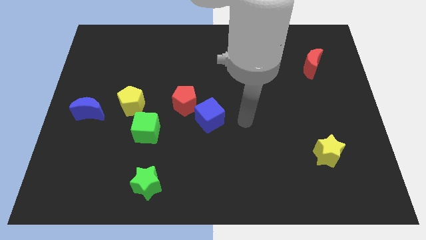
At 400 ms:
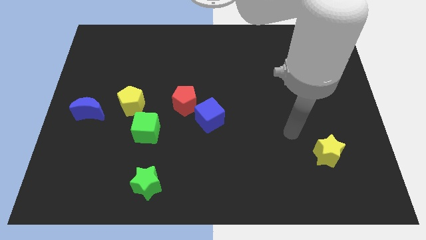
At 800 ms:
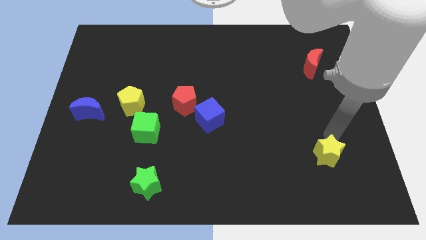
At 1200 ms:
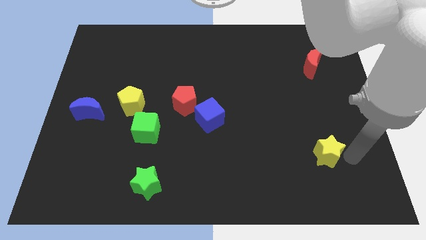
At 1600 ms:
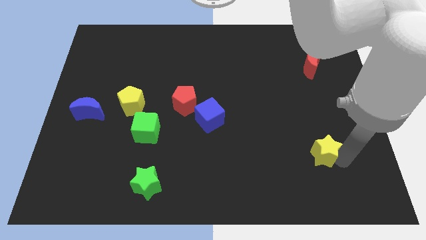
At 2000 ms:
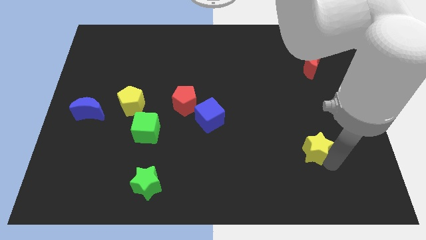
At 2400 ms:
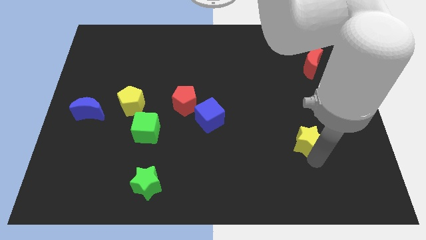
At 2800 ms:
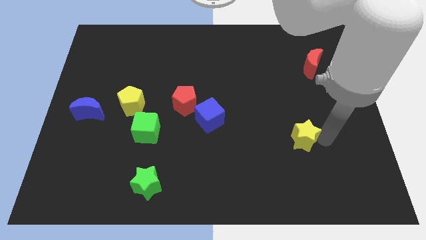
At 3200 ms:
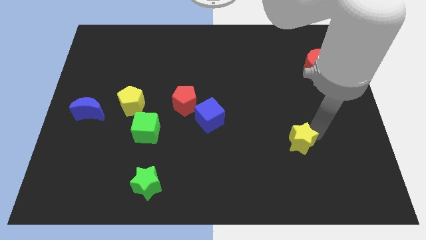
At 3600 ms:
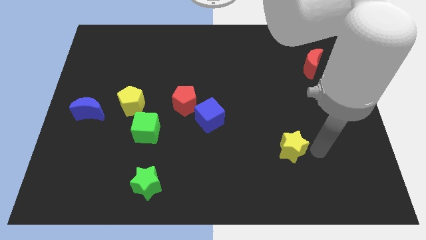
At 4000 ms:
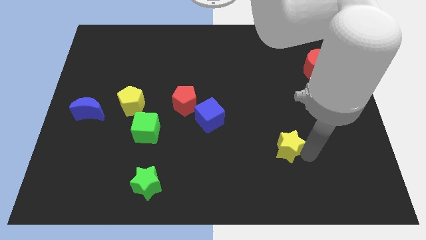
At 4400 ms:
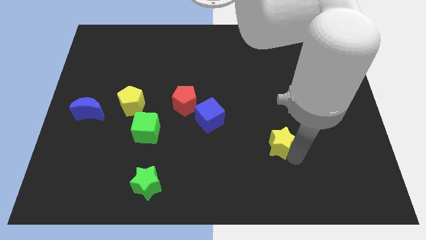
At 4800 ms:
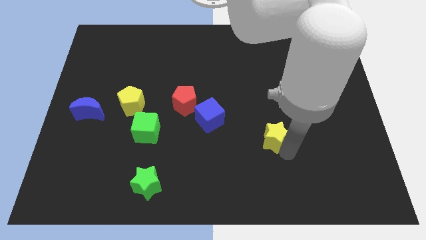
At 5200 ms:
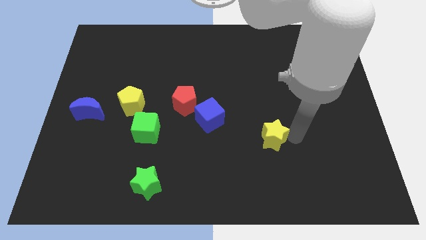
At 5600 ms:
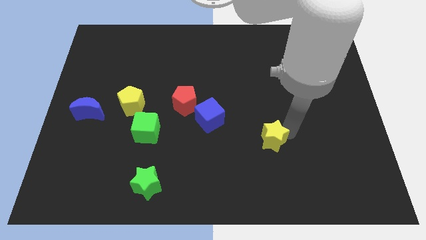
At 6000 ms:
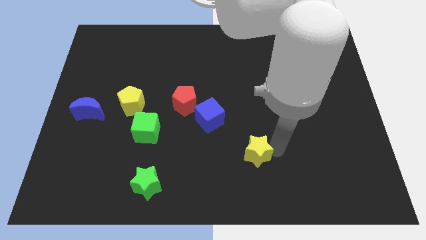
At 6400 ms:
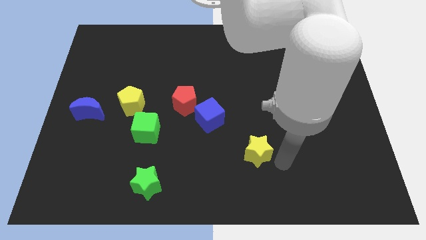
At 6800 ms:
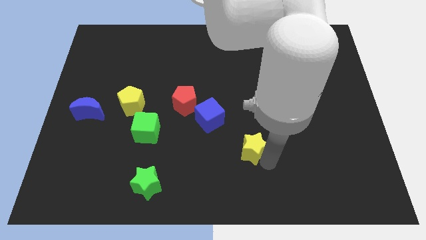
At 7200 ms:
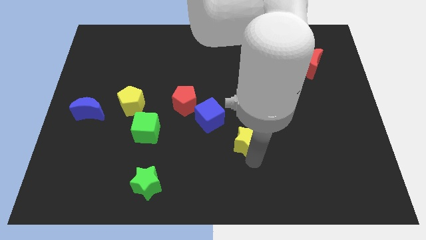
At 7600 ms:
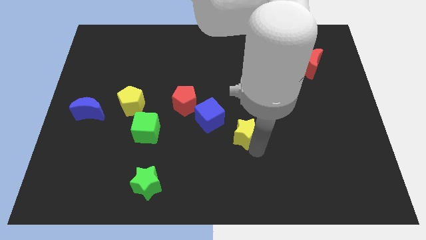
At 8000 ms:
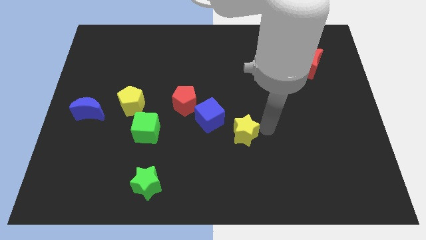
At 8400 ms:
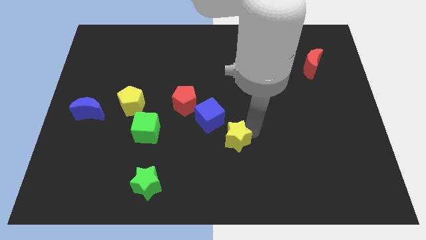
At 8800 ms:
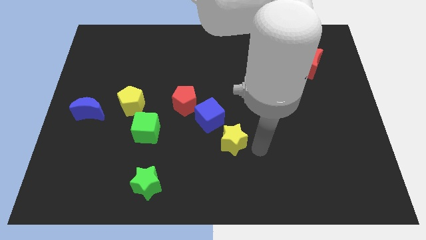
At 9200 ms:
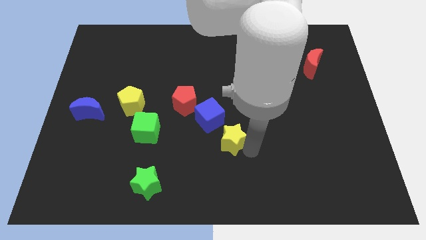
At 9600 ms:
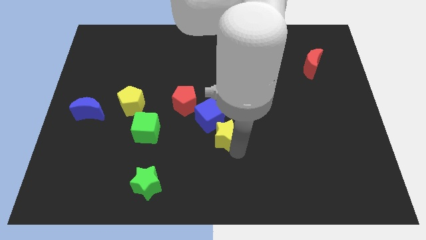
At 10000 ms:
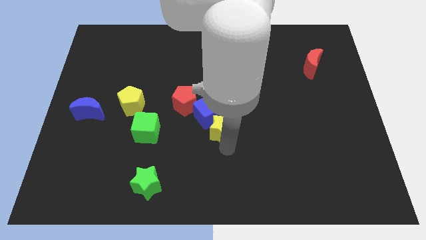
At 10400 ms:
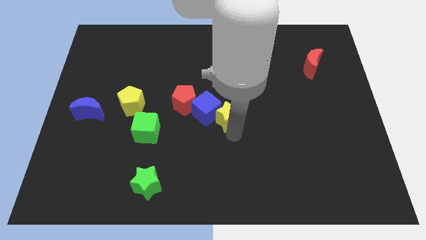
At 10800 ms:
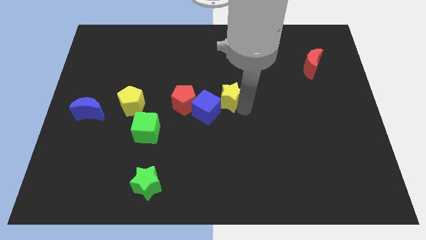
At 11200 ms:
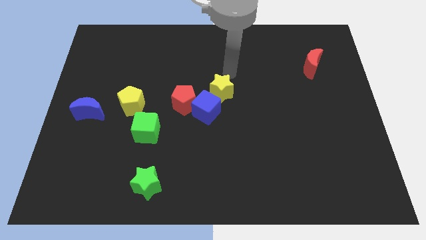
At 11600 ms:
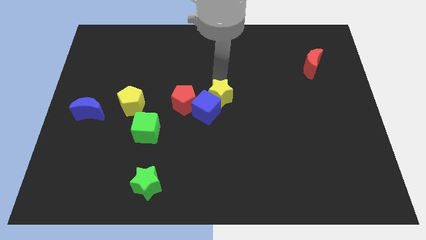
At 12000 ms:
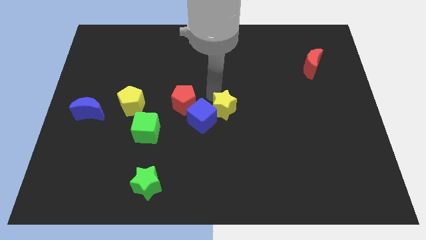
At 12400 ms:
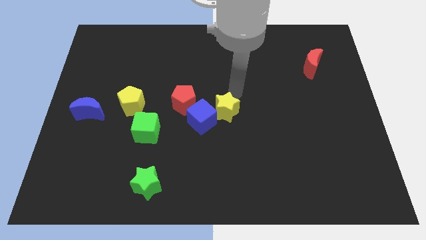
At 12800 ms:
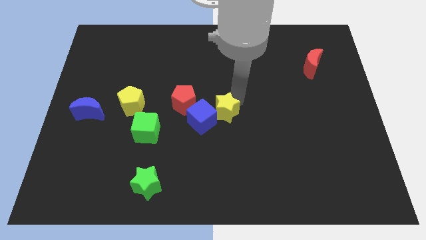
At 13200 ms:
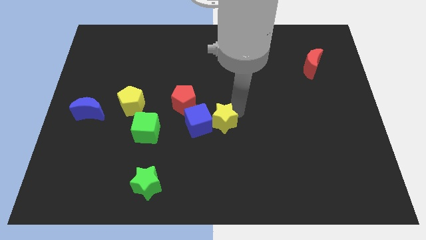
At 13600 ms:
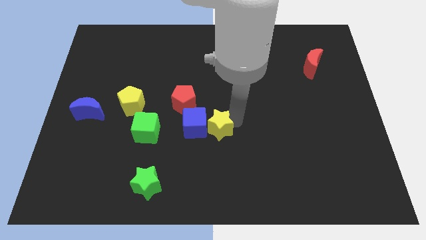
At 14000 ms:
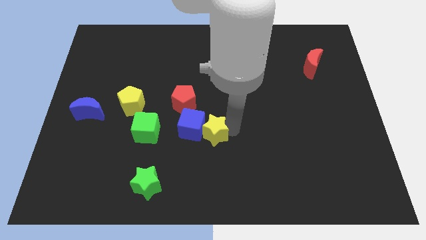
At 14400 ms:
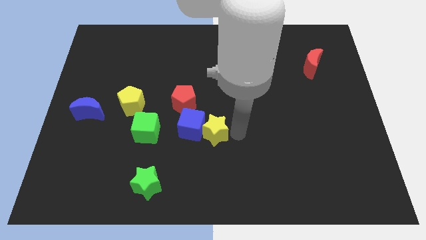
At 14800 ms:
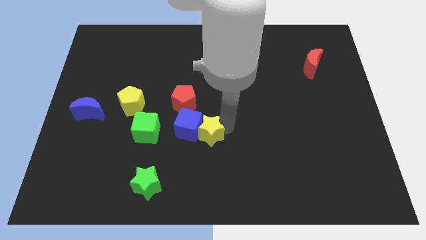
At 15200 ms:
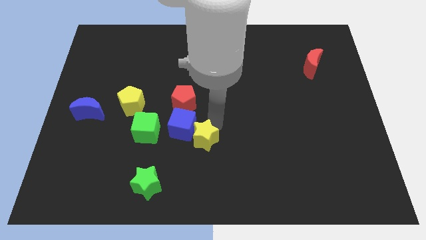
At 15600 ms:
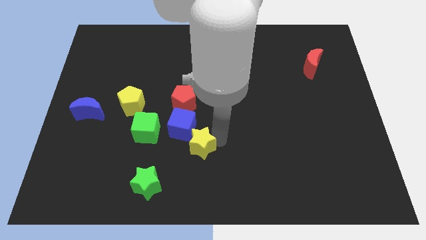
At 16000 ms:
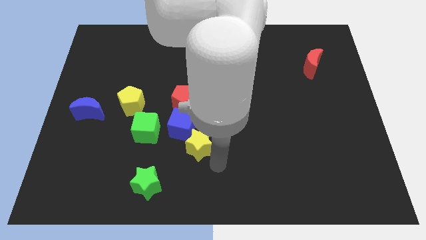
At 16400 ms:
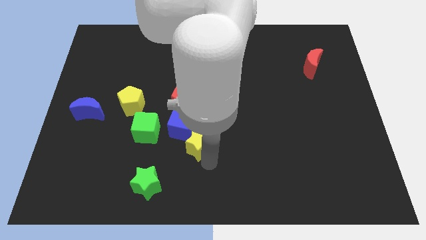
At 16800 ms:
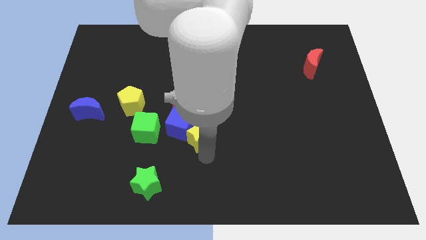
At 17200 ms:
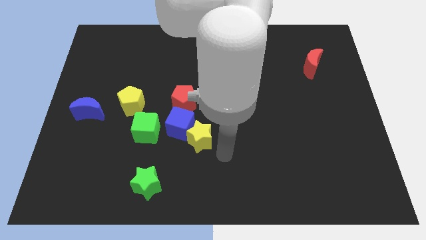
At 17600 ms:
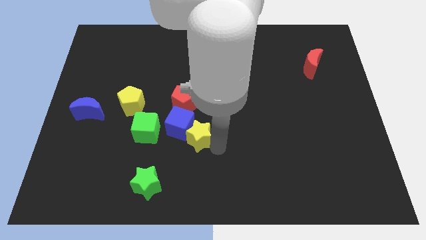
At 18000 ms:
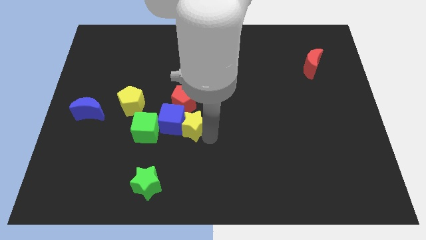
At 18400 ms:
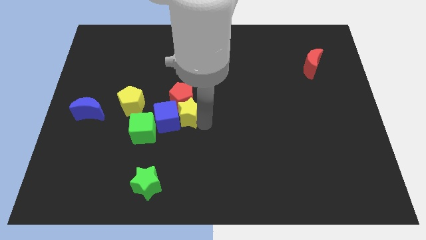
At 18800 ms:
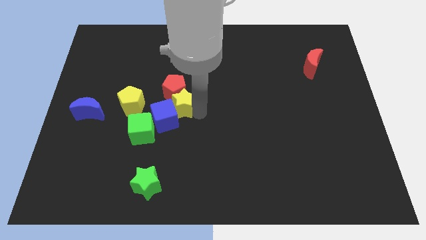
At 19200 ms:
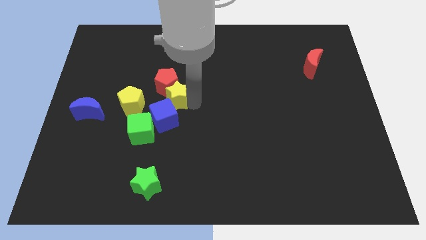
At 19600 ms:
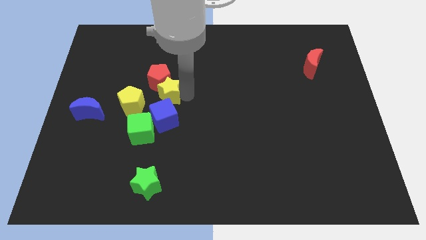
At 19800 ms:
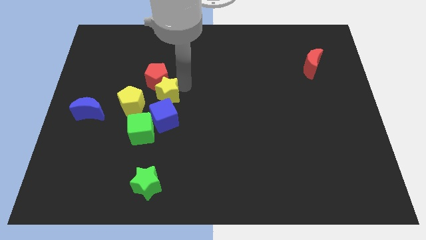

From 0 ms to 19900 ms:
slide the yellow star to the top side of the green cube

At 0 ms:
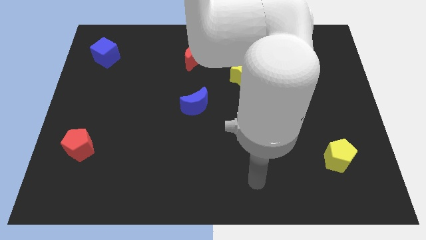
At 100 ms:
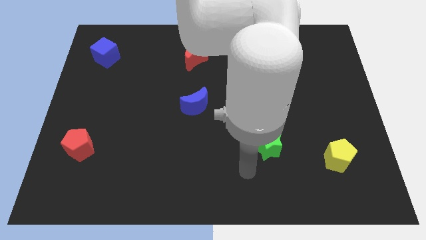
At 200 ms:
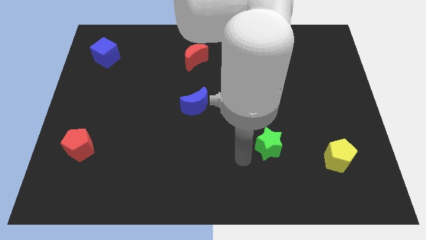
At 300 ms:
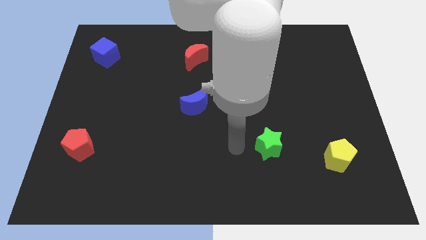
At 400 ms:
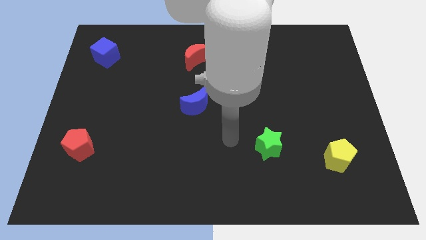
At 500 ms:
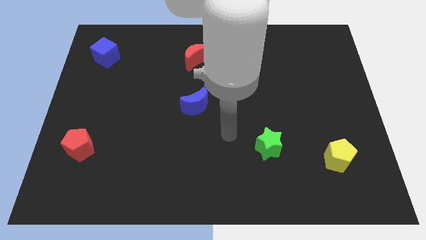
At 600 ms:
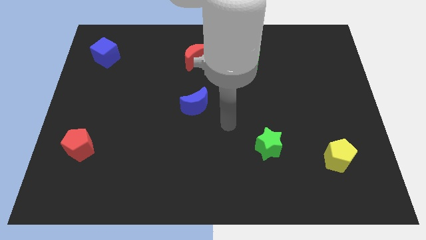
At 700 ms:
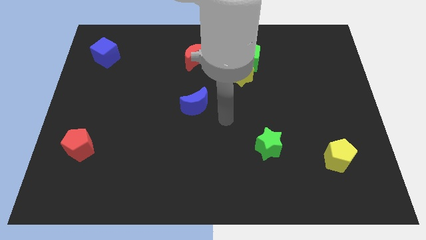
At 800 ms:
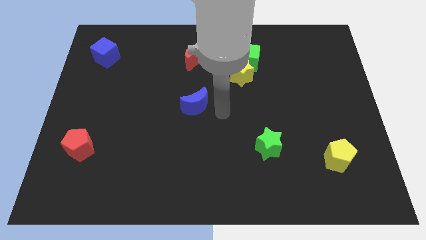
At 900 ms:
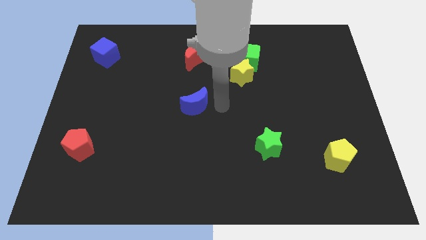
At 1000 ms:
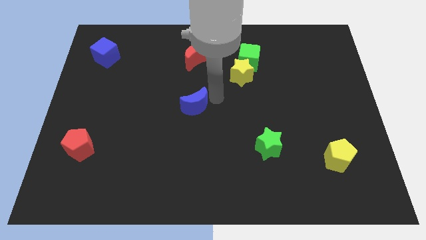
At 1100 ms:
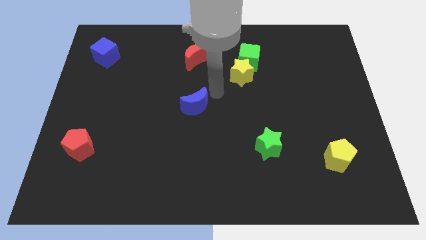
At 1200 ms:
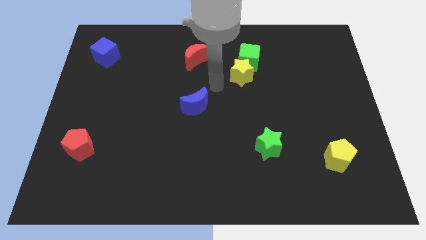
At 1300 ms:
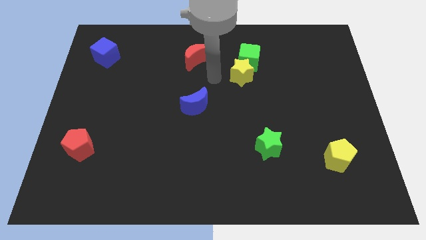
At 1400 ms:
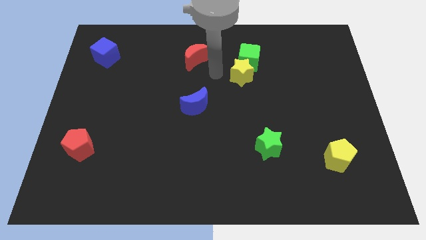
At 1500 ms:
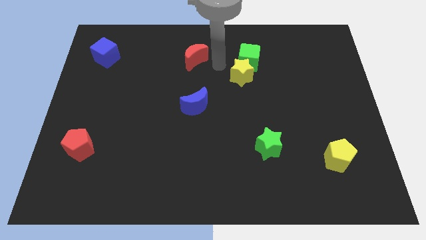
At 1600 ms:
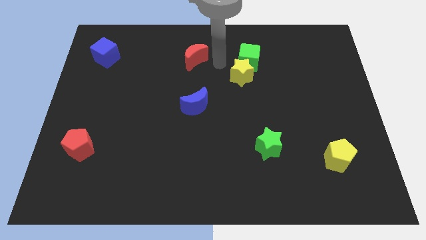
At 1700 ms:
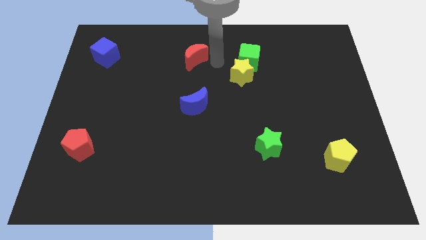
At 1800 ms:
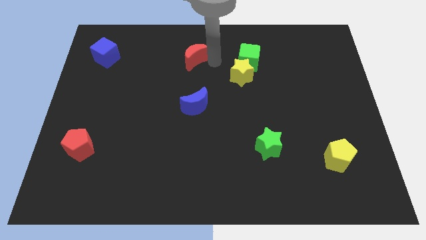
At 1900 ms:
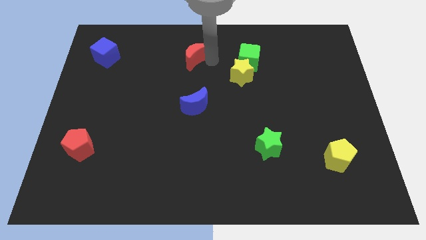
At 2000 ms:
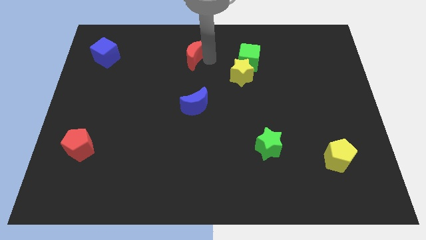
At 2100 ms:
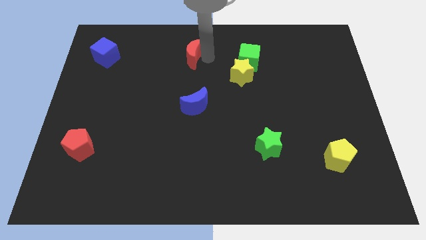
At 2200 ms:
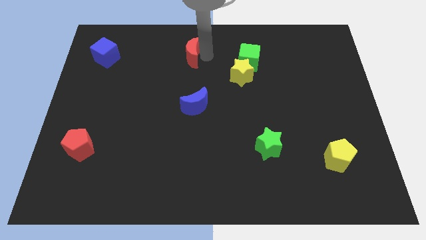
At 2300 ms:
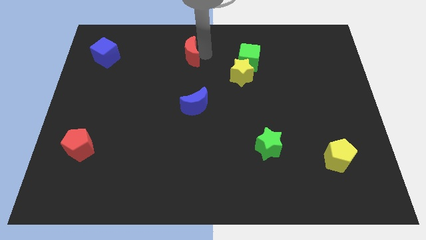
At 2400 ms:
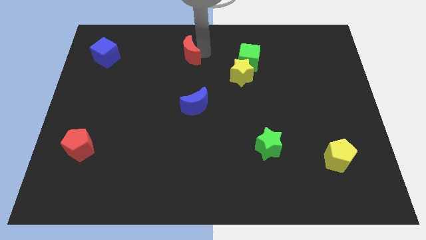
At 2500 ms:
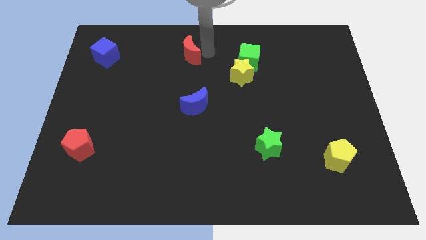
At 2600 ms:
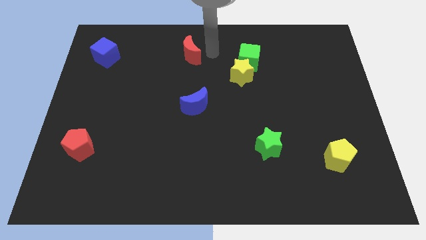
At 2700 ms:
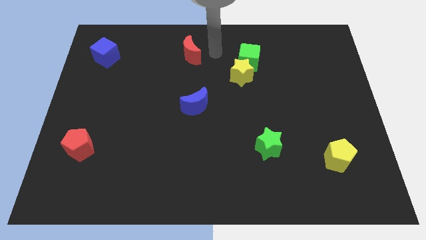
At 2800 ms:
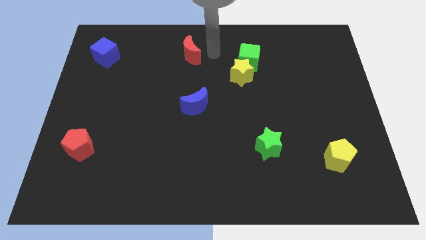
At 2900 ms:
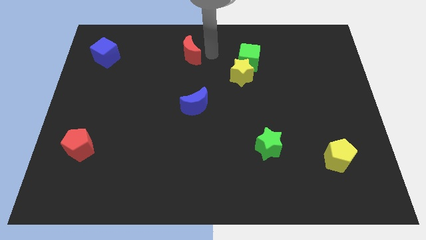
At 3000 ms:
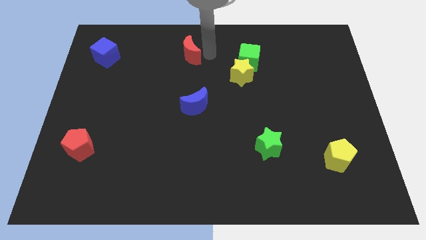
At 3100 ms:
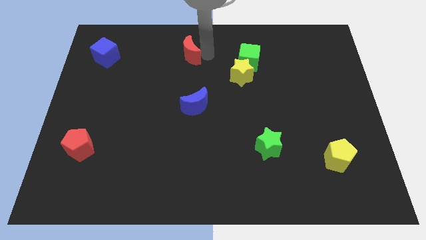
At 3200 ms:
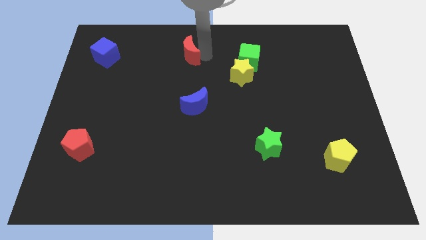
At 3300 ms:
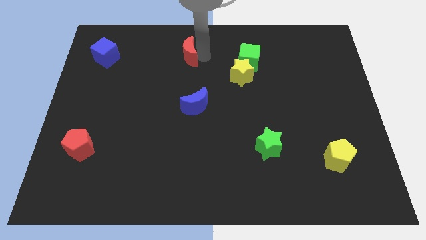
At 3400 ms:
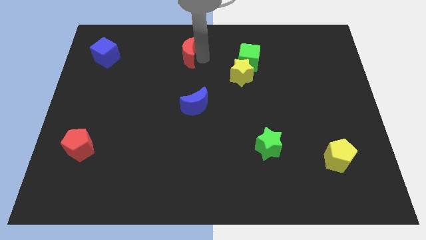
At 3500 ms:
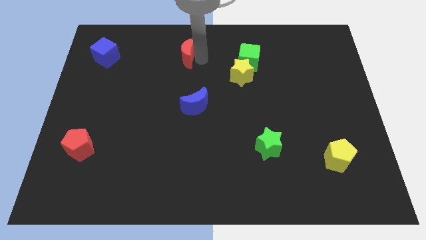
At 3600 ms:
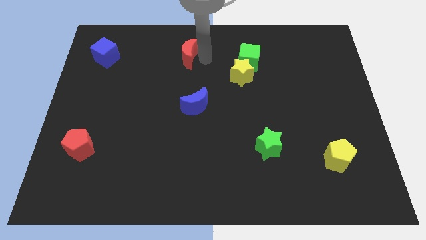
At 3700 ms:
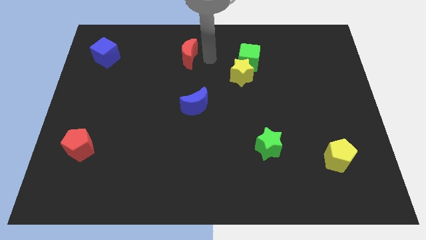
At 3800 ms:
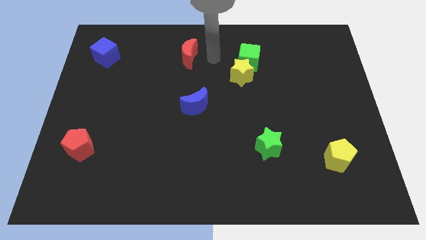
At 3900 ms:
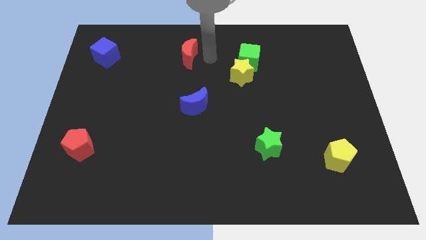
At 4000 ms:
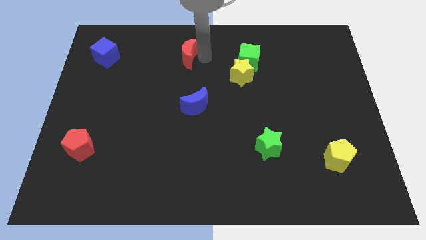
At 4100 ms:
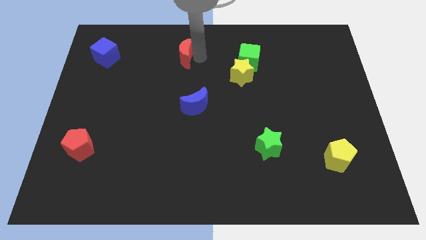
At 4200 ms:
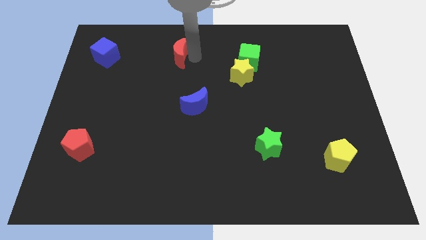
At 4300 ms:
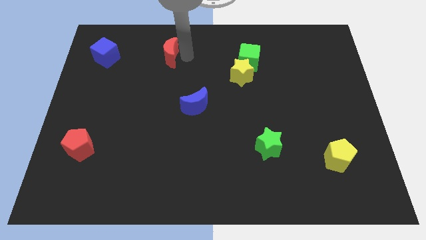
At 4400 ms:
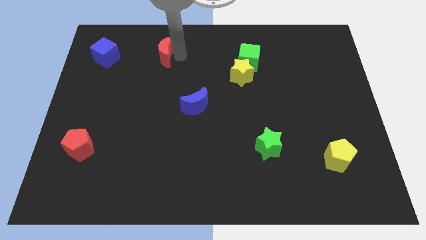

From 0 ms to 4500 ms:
put the red moon just right of the blue cube
